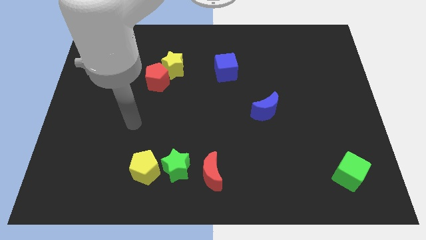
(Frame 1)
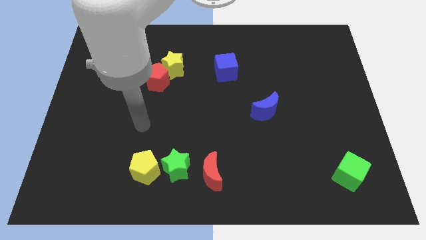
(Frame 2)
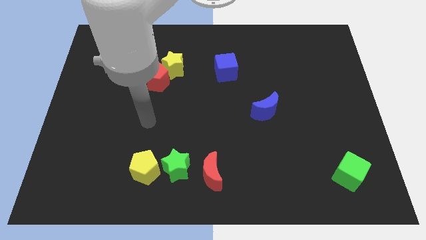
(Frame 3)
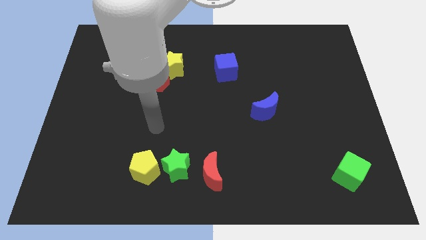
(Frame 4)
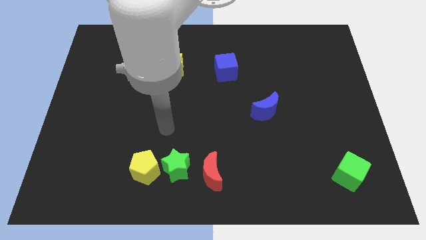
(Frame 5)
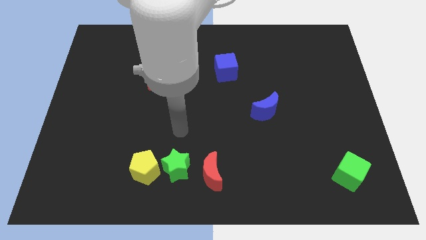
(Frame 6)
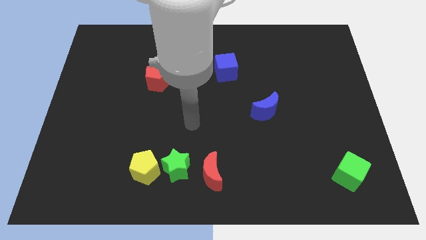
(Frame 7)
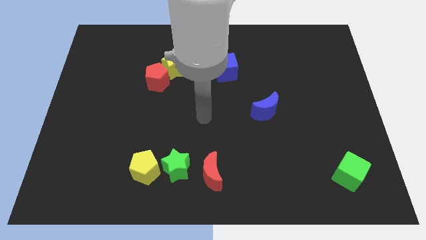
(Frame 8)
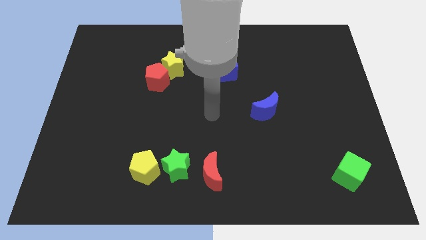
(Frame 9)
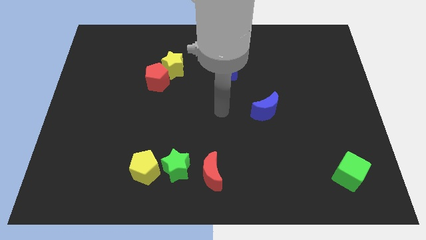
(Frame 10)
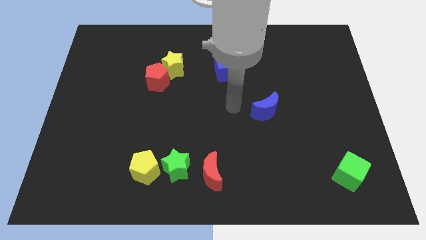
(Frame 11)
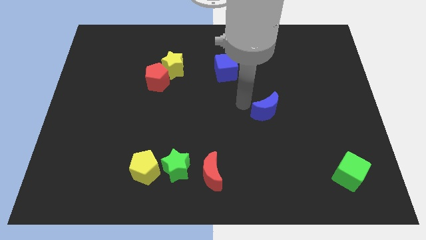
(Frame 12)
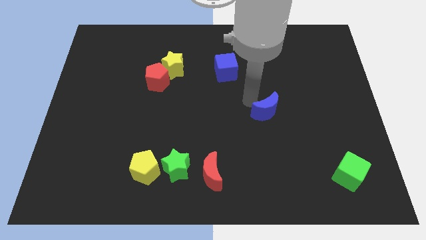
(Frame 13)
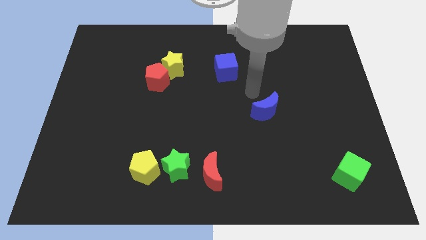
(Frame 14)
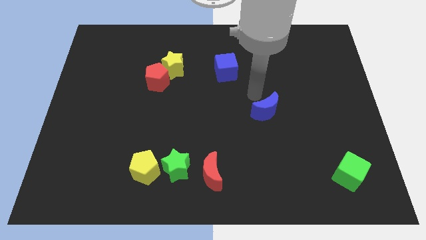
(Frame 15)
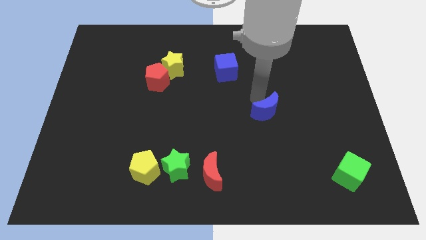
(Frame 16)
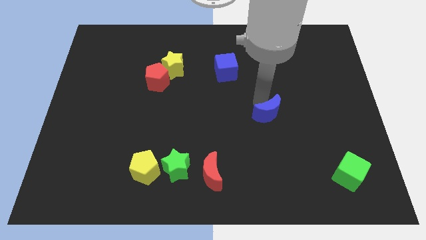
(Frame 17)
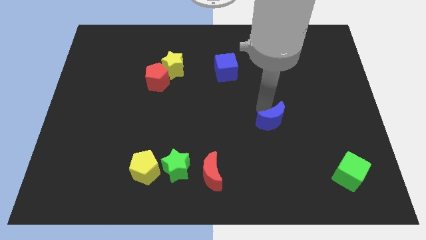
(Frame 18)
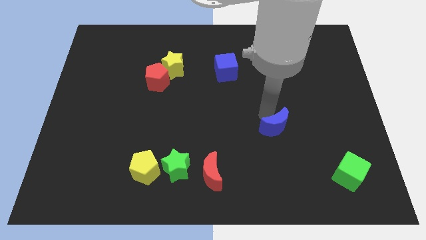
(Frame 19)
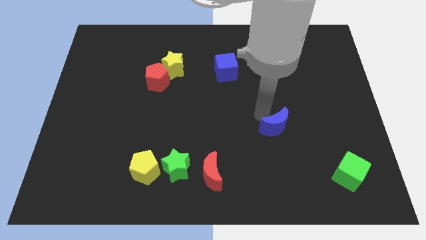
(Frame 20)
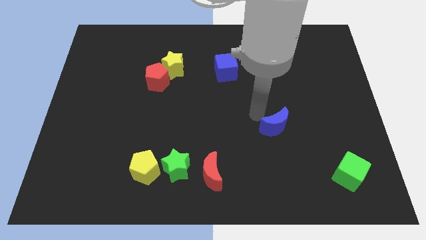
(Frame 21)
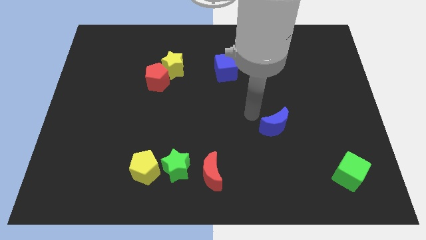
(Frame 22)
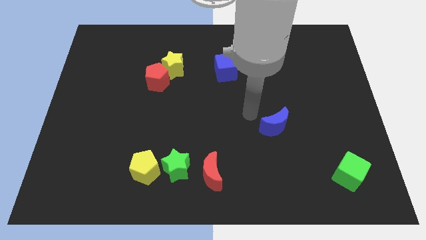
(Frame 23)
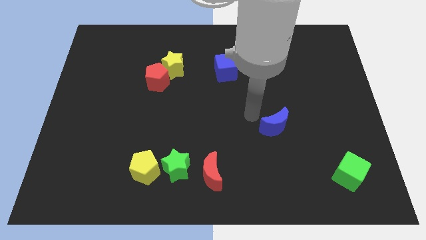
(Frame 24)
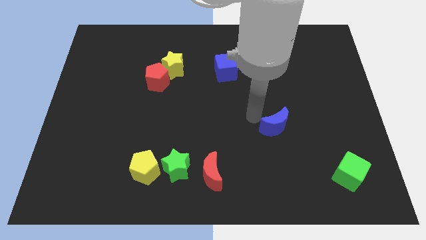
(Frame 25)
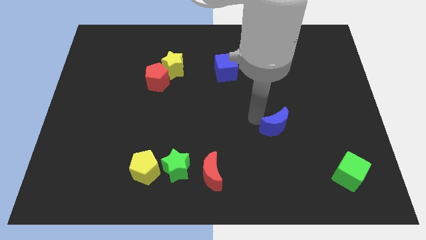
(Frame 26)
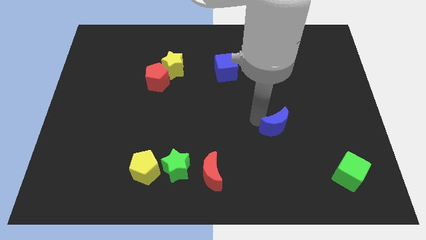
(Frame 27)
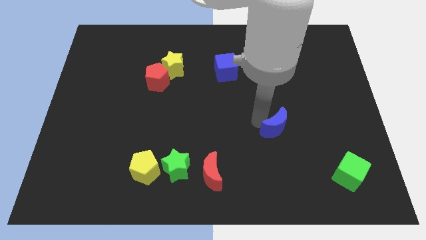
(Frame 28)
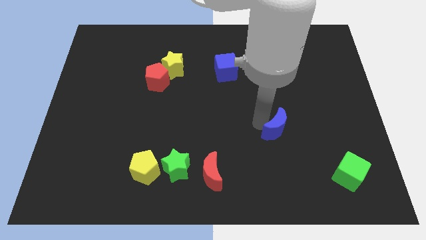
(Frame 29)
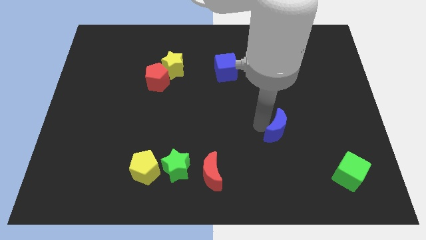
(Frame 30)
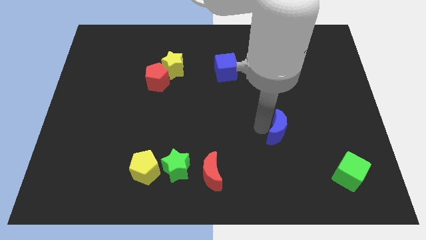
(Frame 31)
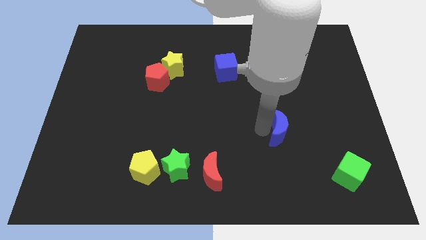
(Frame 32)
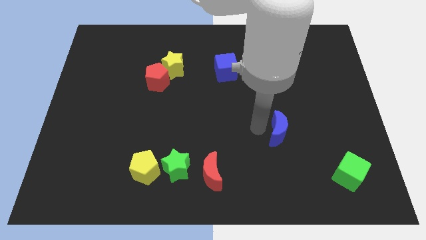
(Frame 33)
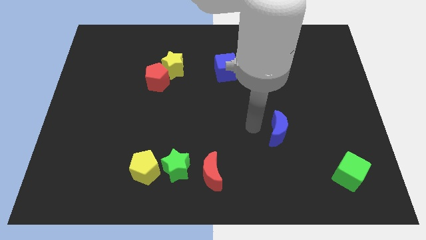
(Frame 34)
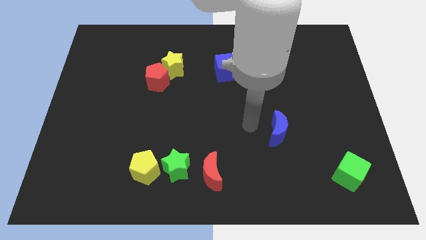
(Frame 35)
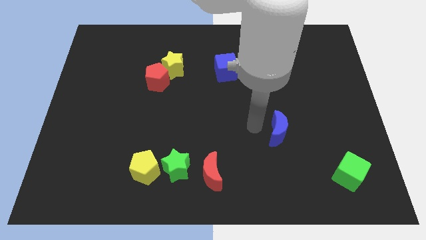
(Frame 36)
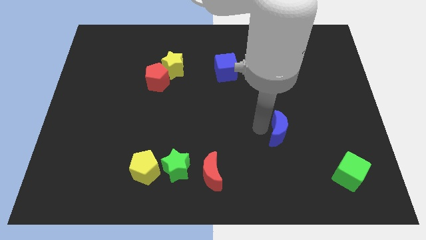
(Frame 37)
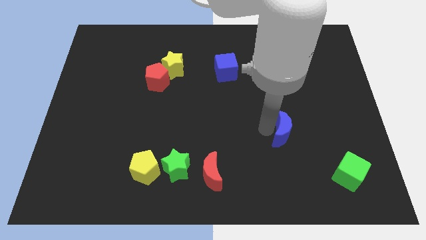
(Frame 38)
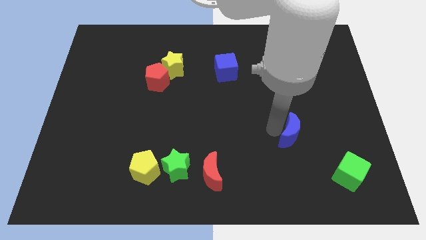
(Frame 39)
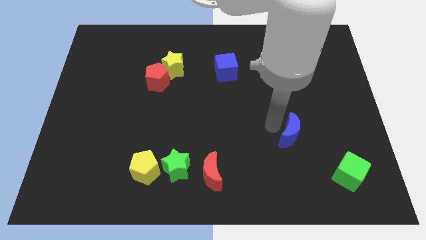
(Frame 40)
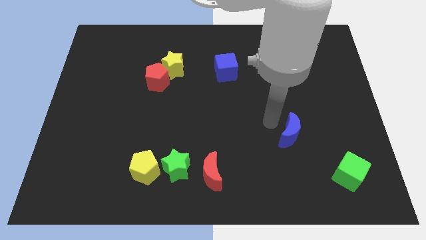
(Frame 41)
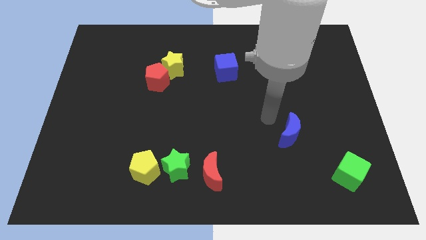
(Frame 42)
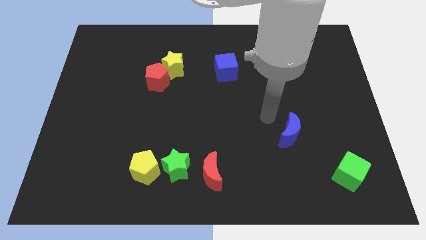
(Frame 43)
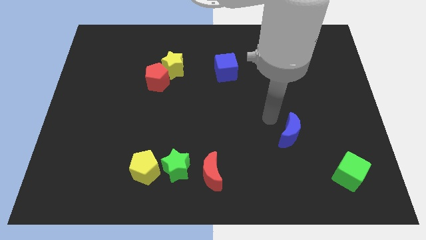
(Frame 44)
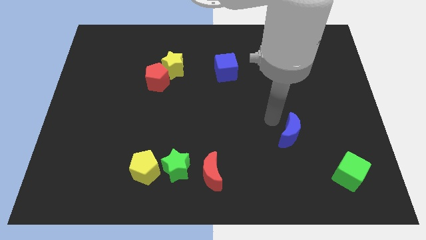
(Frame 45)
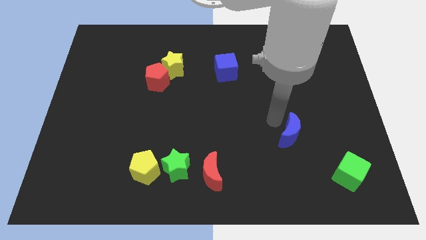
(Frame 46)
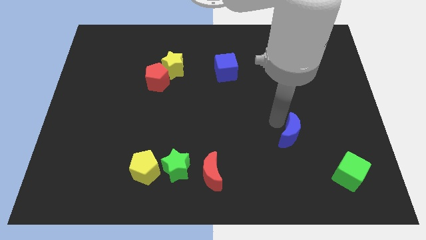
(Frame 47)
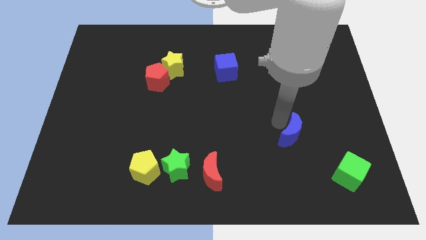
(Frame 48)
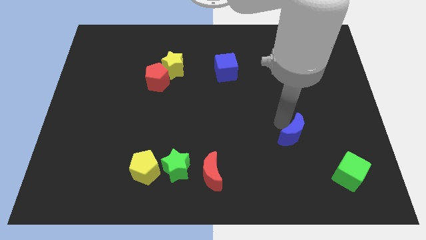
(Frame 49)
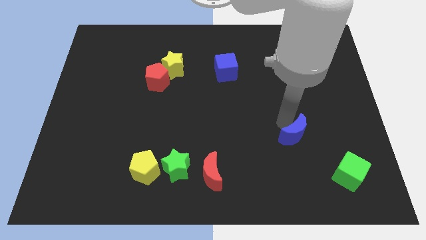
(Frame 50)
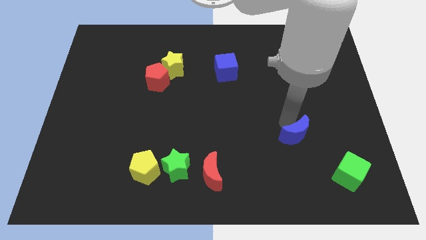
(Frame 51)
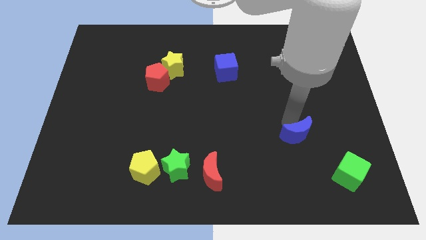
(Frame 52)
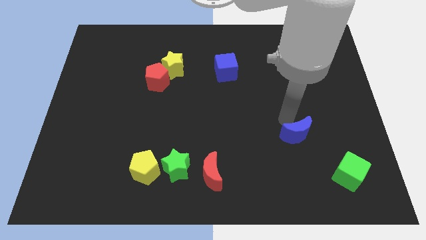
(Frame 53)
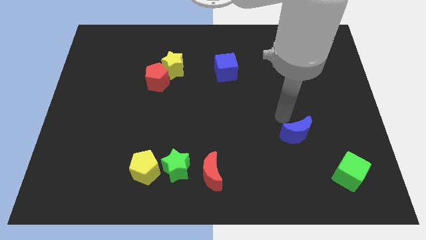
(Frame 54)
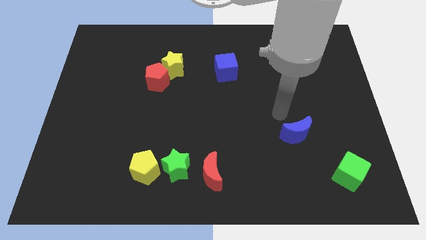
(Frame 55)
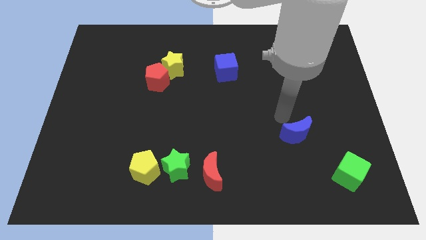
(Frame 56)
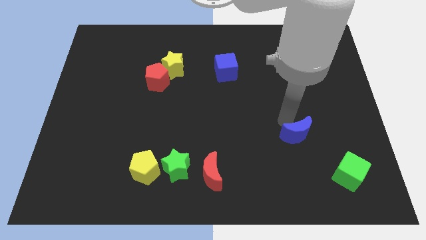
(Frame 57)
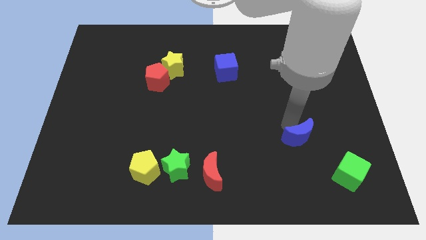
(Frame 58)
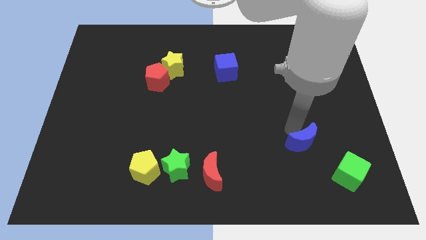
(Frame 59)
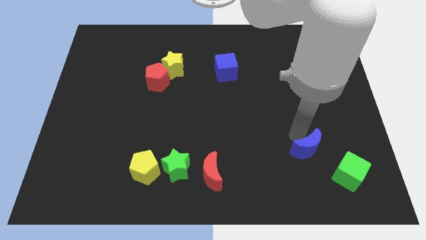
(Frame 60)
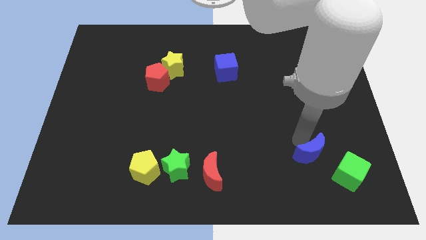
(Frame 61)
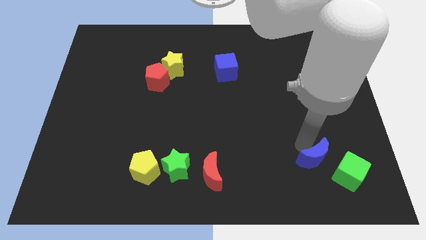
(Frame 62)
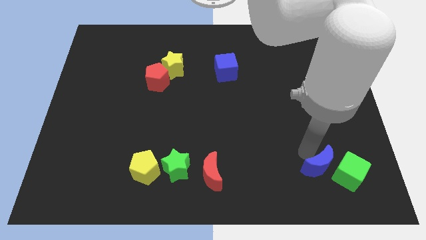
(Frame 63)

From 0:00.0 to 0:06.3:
move the blue moon next to the green cube

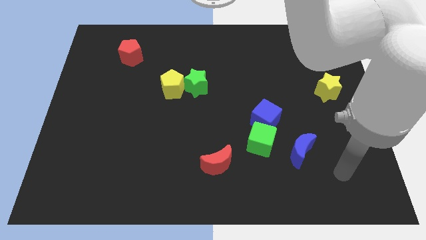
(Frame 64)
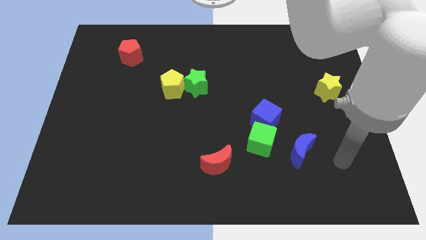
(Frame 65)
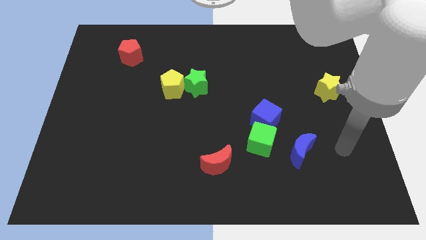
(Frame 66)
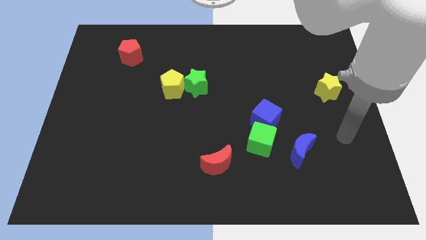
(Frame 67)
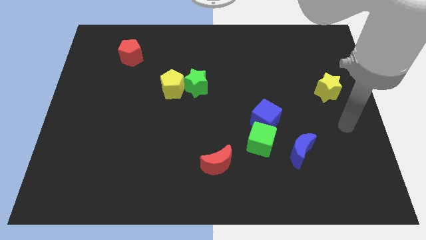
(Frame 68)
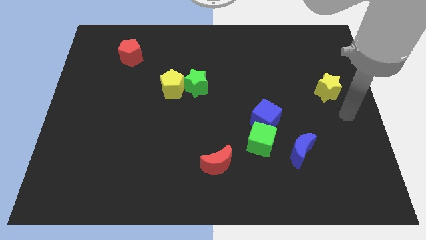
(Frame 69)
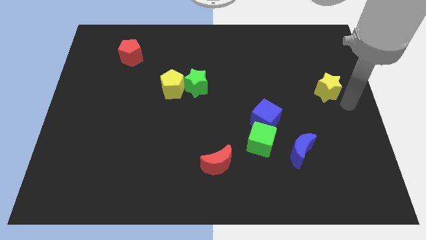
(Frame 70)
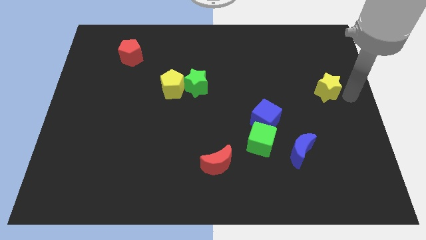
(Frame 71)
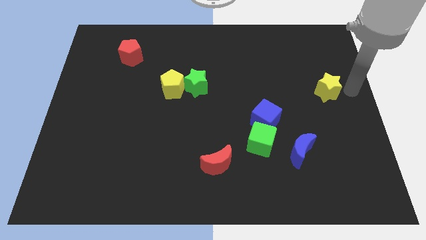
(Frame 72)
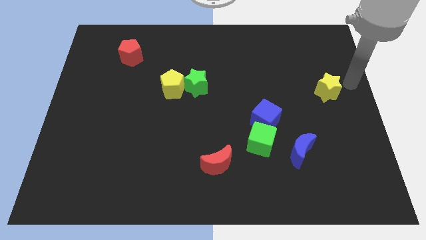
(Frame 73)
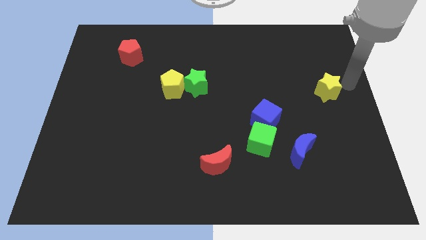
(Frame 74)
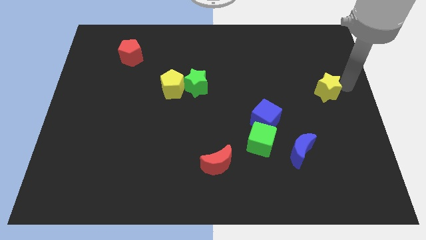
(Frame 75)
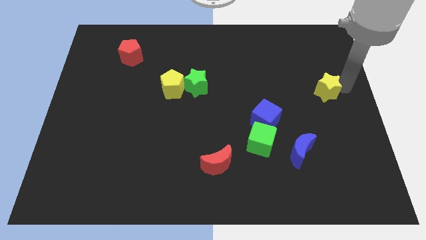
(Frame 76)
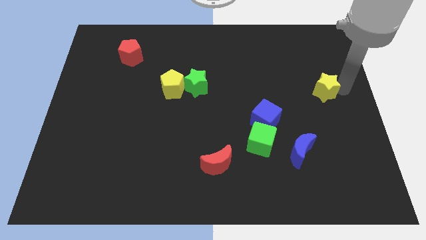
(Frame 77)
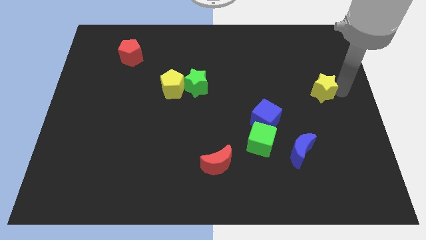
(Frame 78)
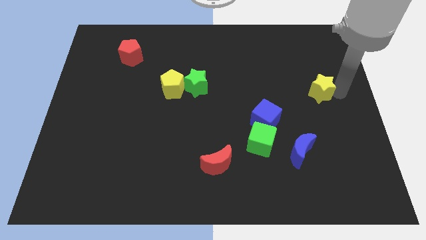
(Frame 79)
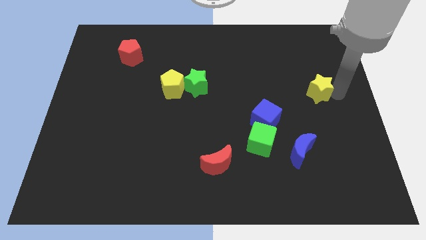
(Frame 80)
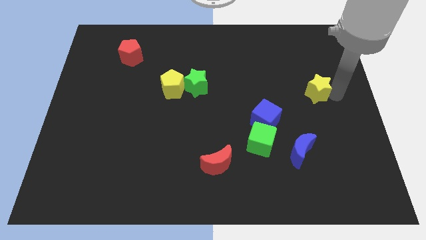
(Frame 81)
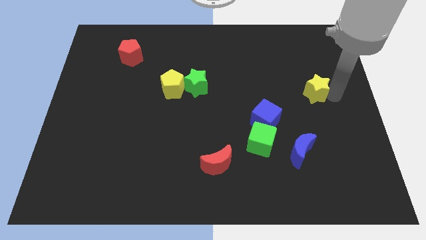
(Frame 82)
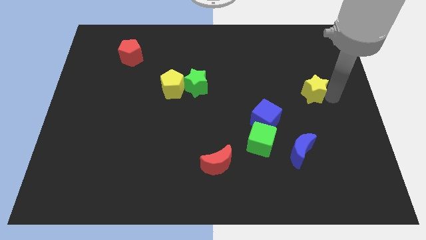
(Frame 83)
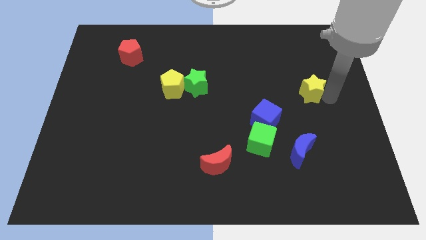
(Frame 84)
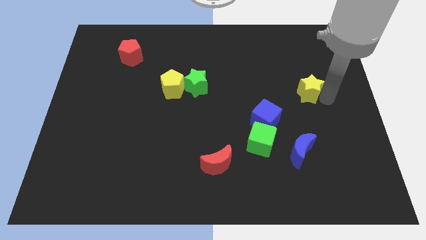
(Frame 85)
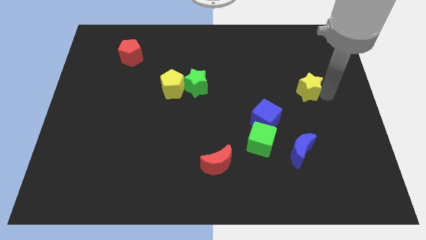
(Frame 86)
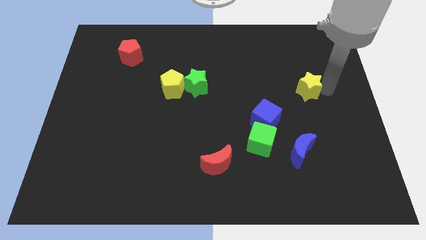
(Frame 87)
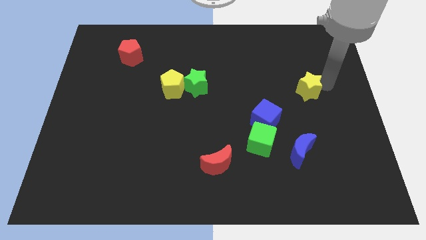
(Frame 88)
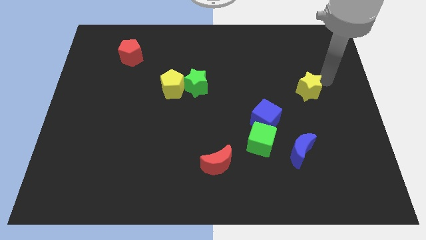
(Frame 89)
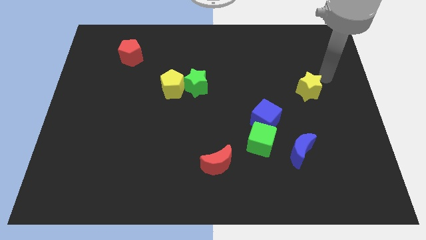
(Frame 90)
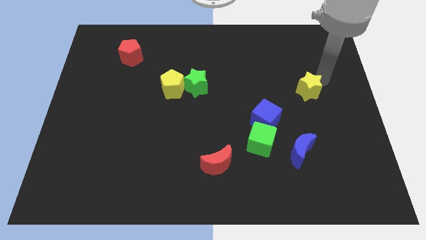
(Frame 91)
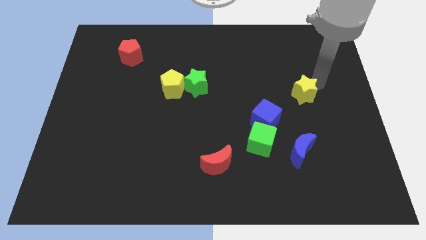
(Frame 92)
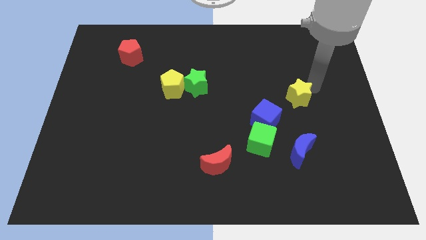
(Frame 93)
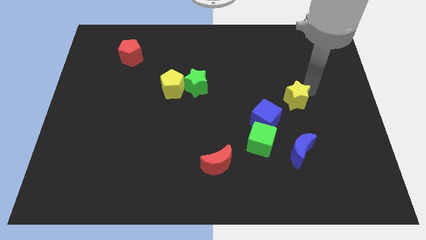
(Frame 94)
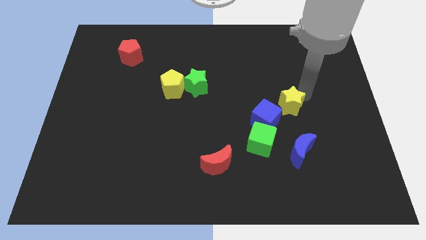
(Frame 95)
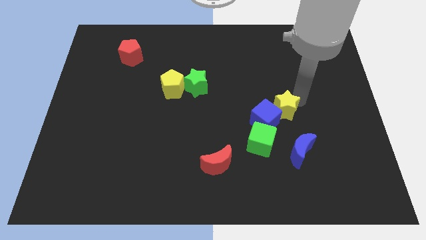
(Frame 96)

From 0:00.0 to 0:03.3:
move the yellow star towards the blue cube
